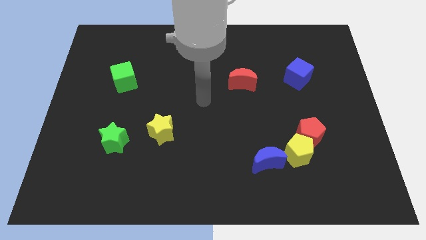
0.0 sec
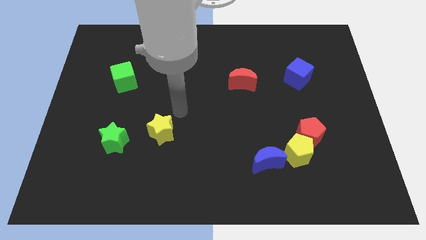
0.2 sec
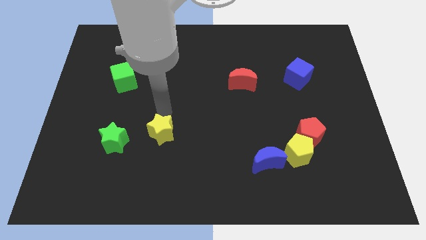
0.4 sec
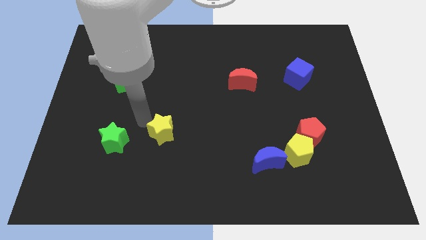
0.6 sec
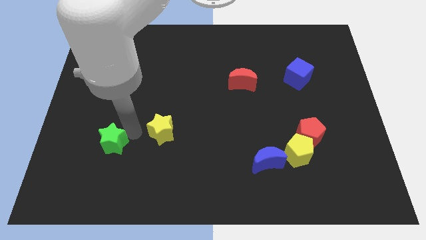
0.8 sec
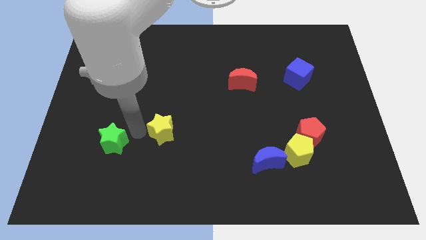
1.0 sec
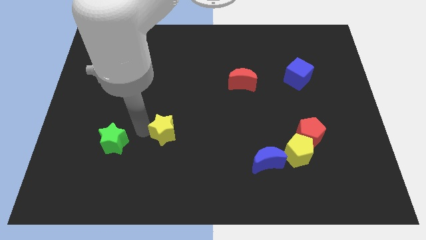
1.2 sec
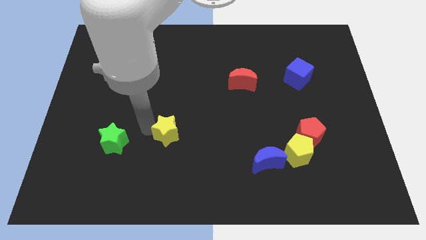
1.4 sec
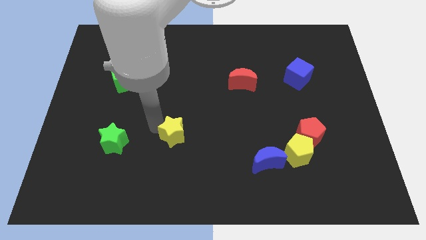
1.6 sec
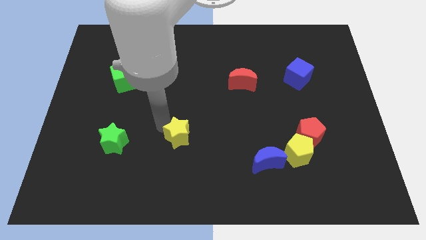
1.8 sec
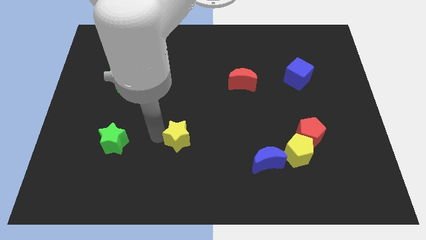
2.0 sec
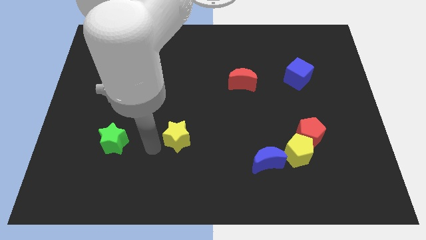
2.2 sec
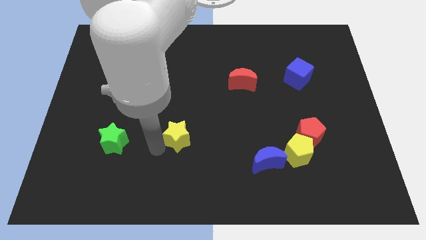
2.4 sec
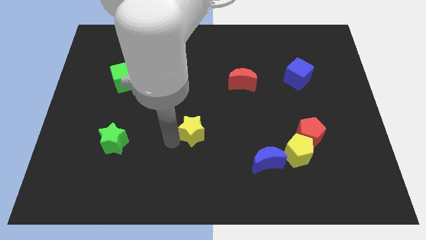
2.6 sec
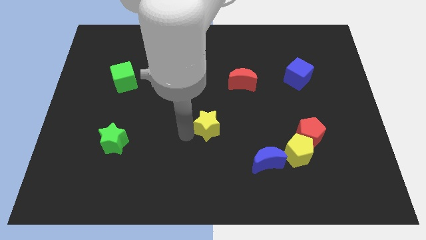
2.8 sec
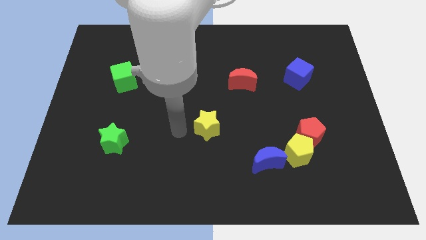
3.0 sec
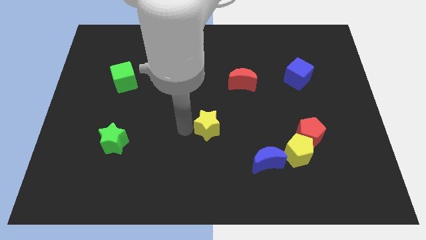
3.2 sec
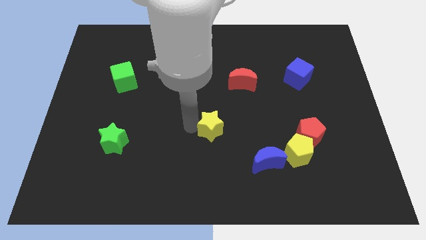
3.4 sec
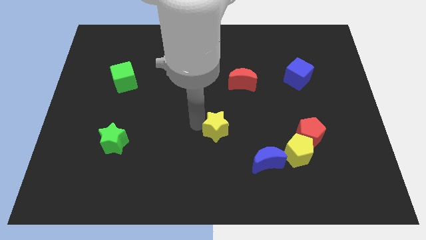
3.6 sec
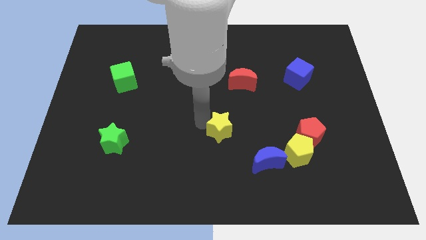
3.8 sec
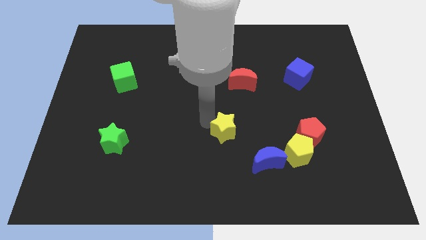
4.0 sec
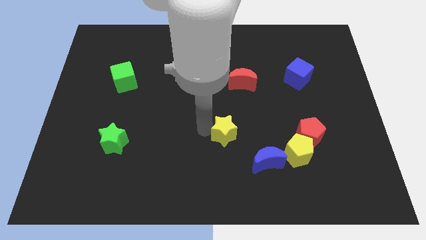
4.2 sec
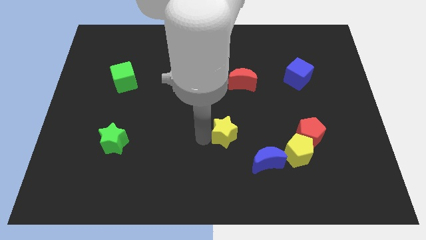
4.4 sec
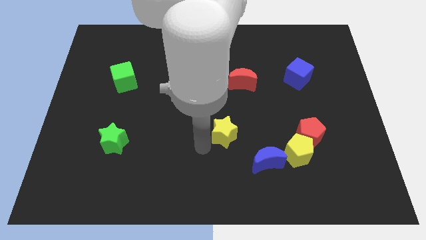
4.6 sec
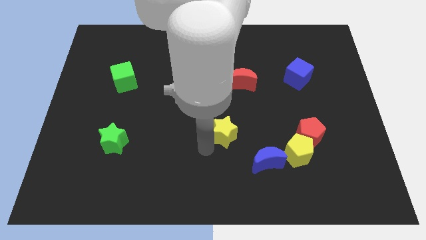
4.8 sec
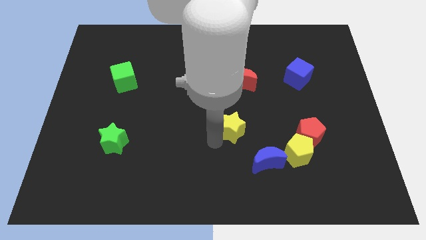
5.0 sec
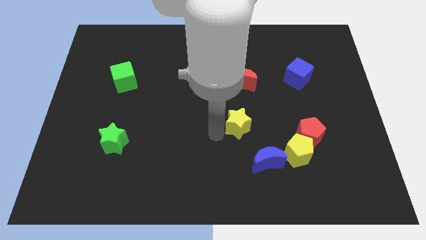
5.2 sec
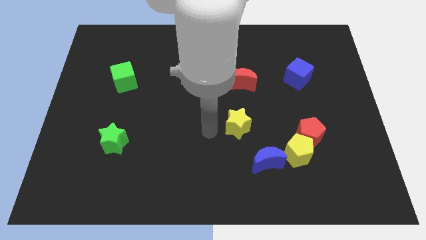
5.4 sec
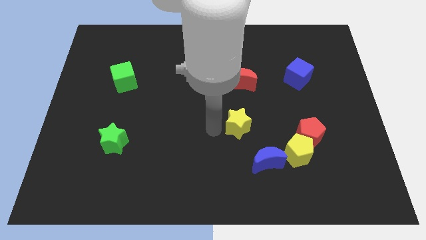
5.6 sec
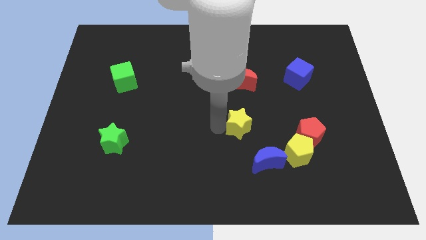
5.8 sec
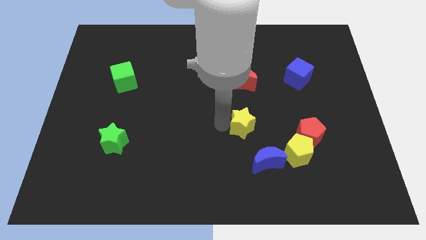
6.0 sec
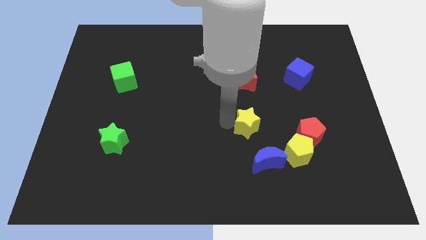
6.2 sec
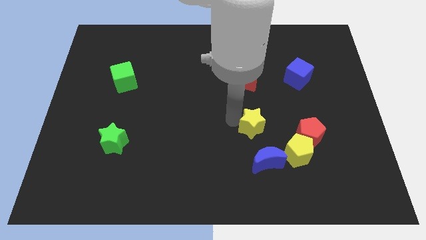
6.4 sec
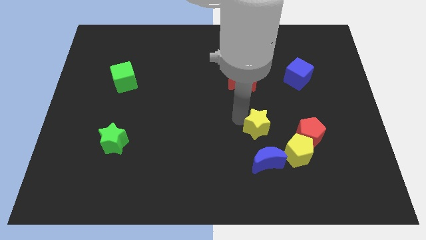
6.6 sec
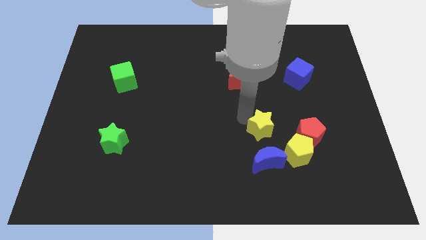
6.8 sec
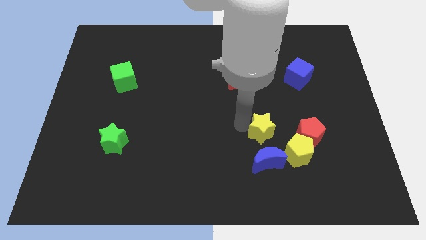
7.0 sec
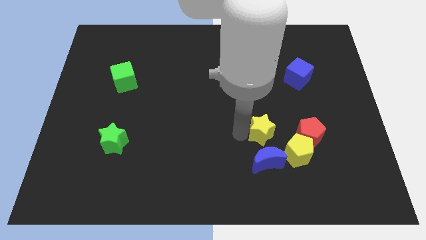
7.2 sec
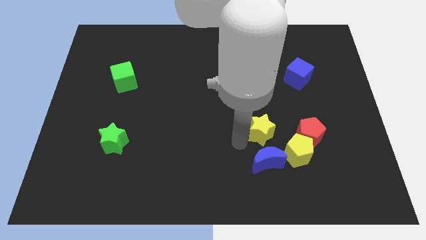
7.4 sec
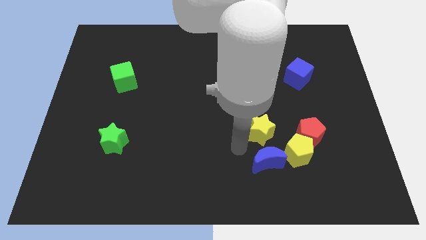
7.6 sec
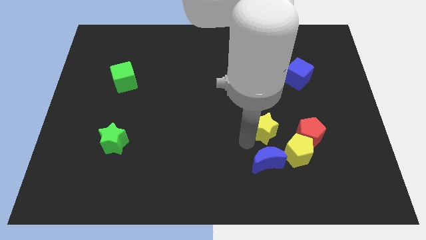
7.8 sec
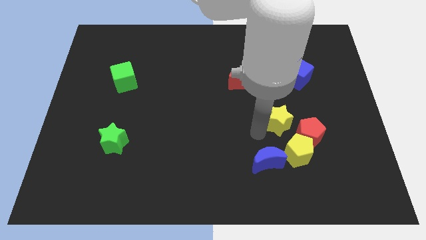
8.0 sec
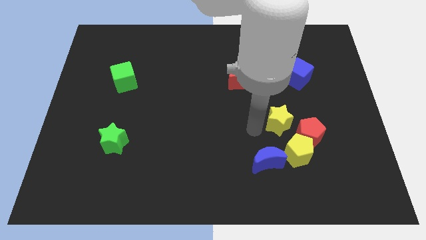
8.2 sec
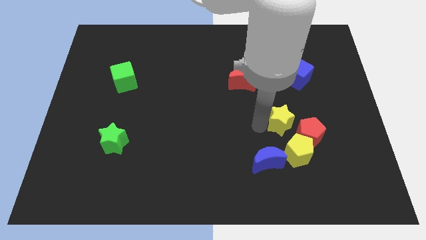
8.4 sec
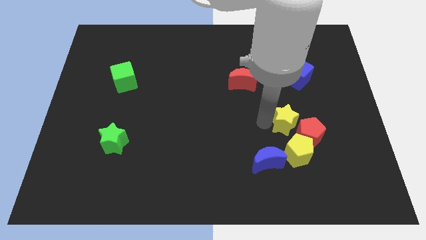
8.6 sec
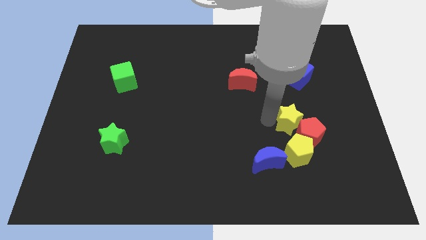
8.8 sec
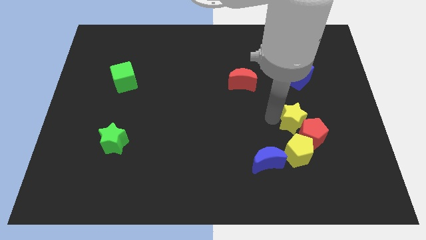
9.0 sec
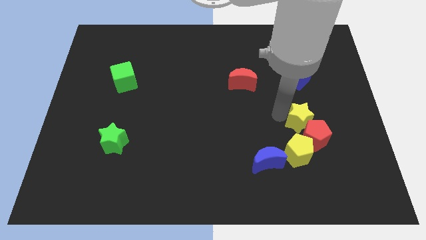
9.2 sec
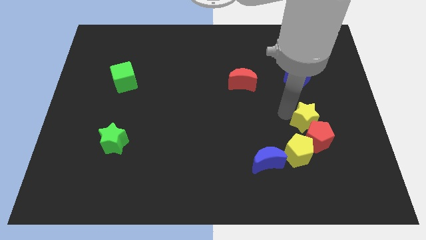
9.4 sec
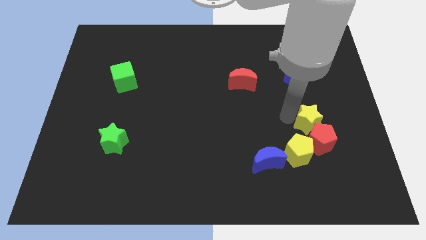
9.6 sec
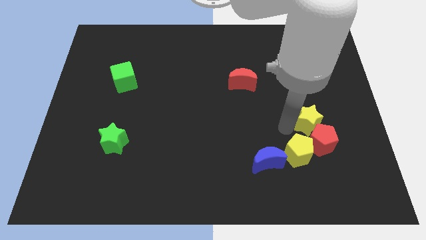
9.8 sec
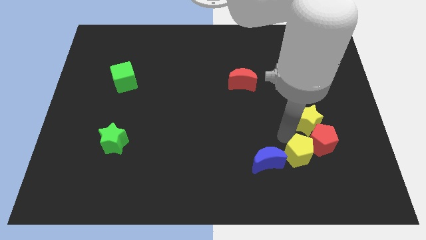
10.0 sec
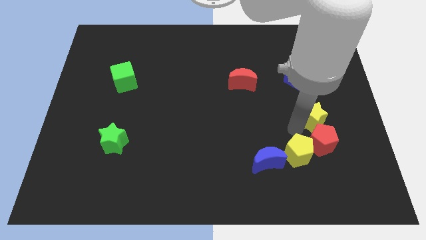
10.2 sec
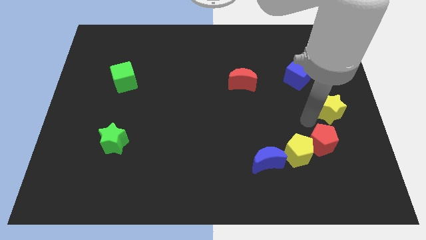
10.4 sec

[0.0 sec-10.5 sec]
push the yellow star to the right side of the board

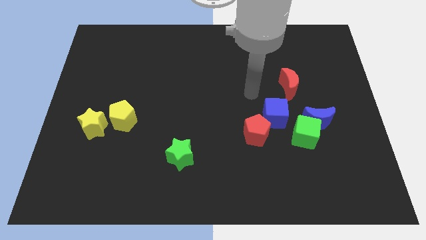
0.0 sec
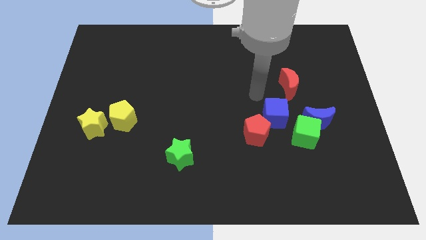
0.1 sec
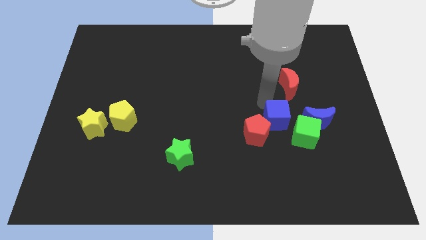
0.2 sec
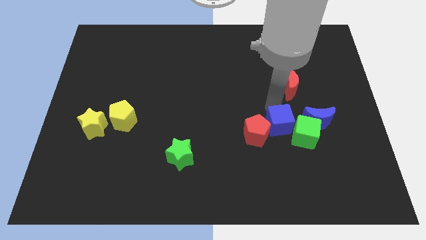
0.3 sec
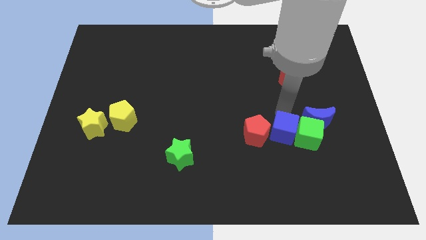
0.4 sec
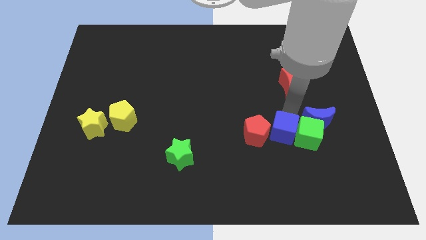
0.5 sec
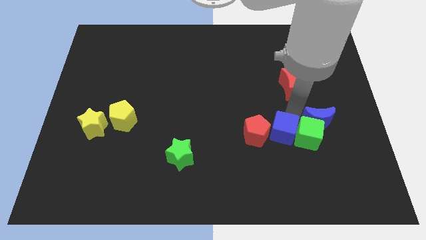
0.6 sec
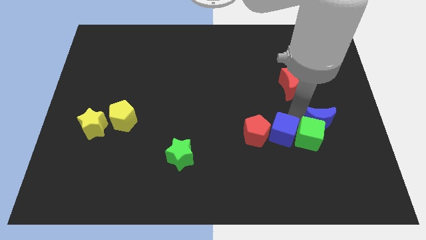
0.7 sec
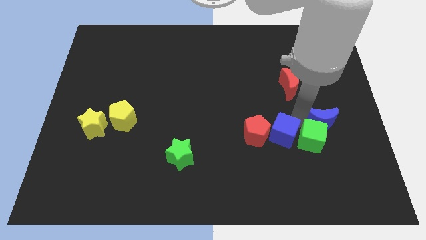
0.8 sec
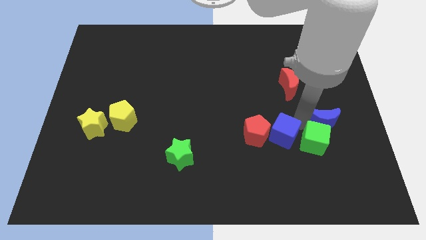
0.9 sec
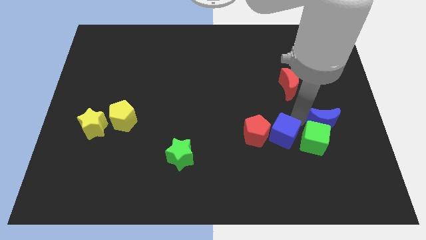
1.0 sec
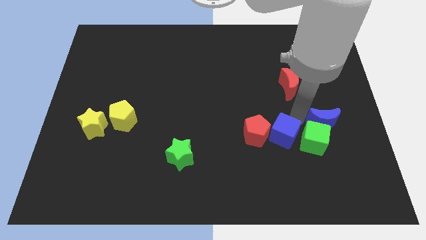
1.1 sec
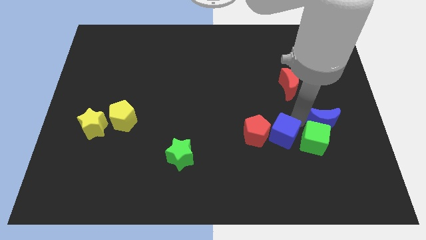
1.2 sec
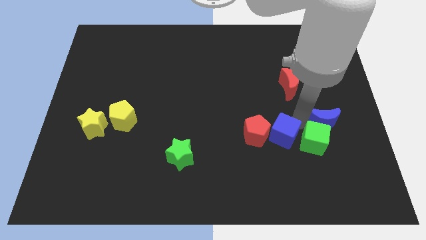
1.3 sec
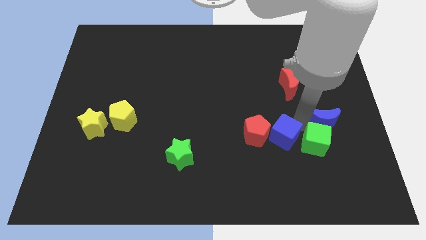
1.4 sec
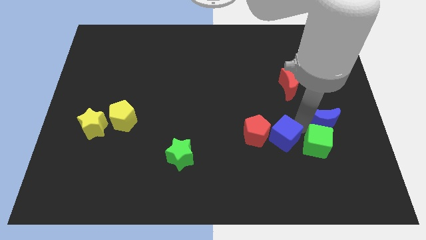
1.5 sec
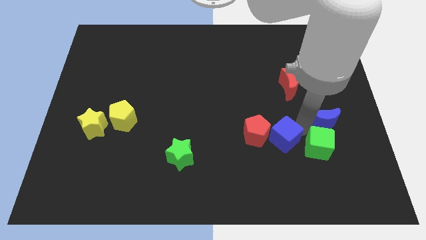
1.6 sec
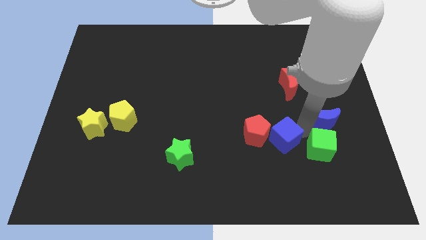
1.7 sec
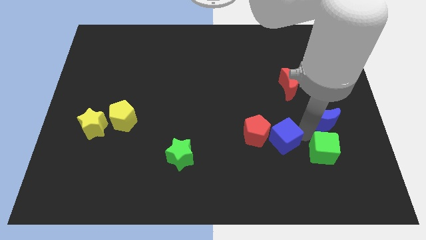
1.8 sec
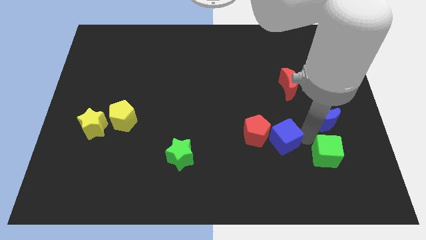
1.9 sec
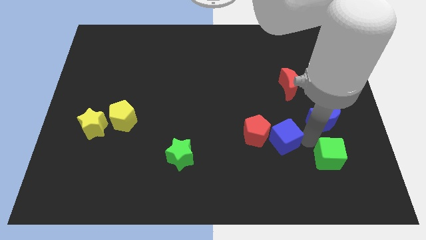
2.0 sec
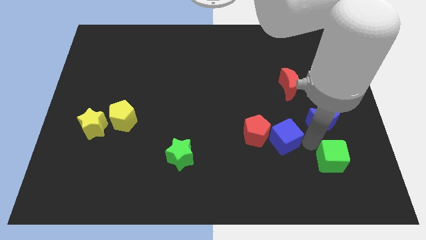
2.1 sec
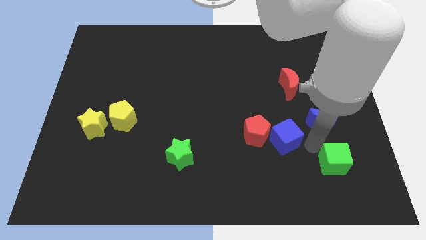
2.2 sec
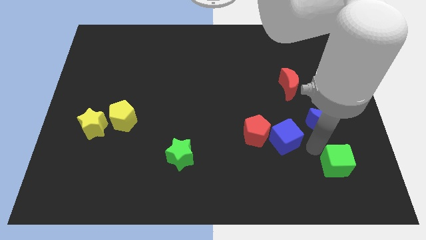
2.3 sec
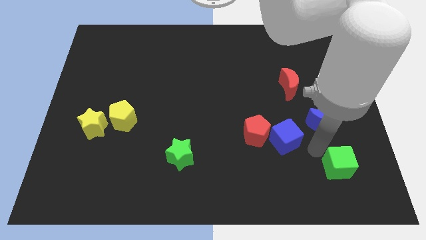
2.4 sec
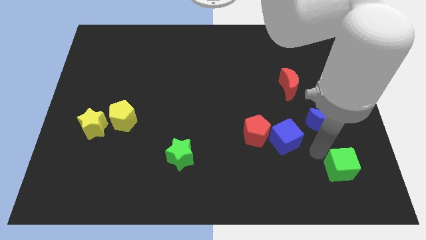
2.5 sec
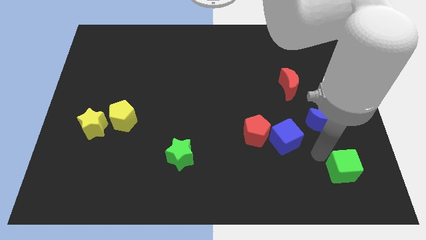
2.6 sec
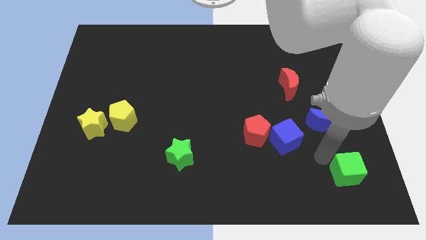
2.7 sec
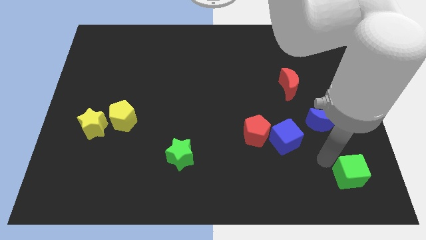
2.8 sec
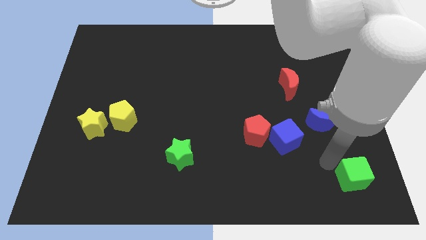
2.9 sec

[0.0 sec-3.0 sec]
slide the green cube to the bottom right corner
